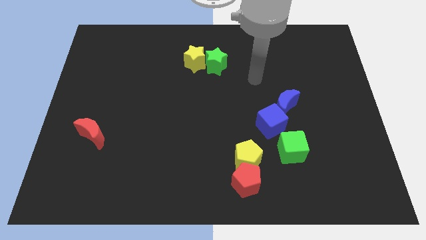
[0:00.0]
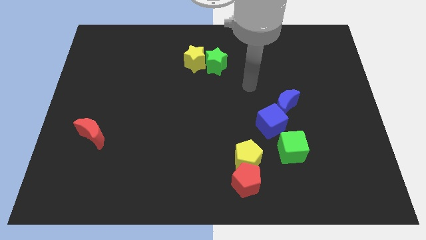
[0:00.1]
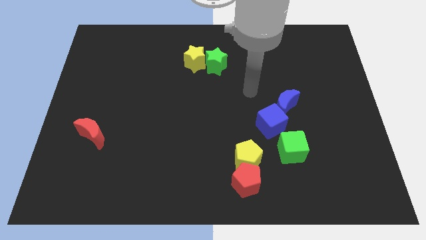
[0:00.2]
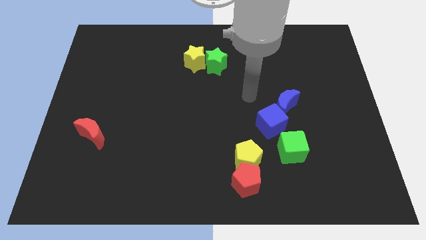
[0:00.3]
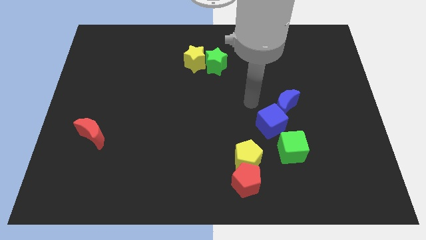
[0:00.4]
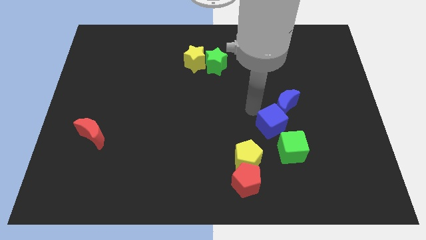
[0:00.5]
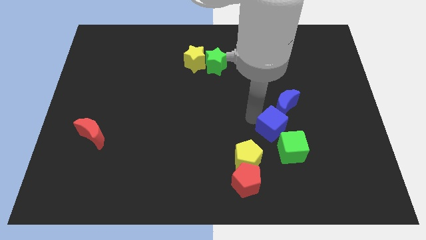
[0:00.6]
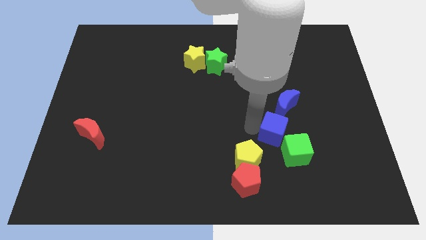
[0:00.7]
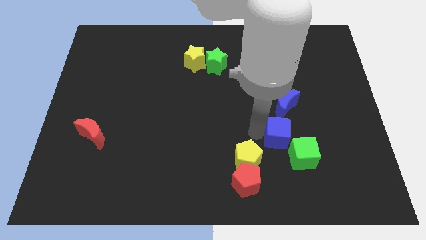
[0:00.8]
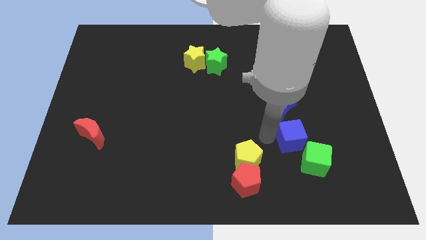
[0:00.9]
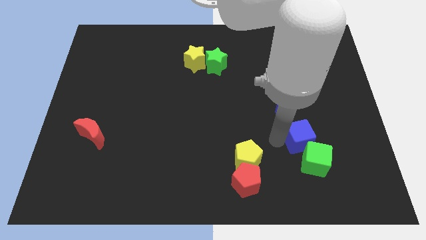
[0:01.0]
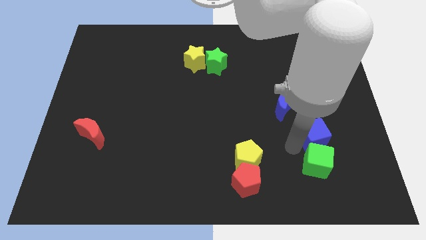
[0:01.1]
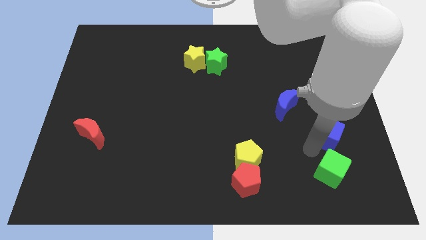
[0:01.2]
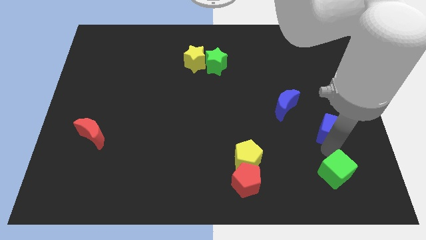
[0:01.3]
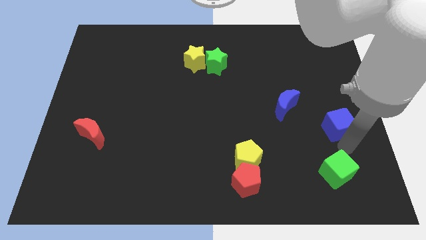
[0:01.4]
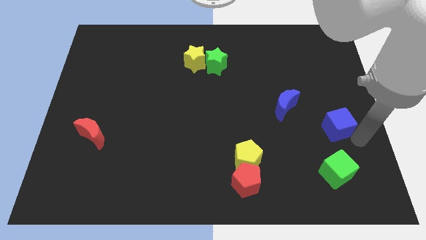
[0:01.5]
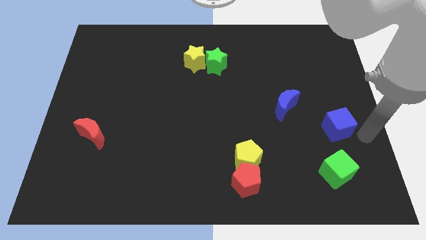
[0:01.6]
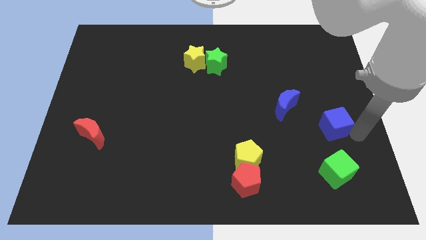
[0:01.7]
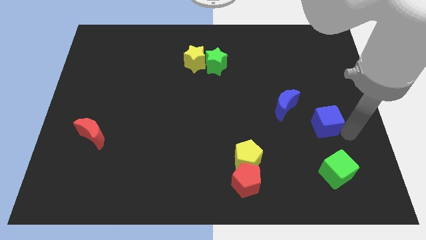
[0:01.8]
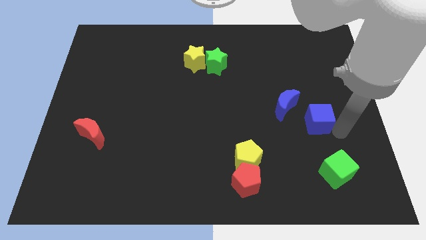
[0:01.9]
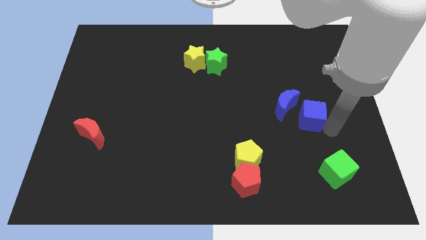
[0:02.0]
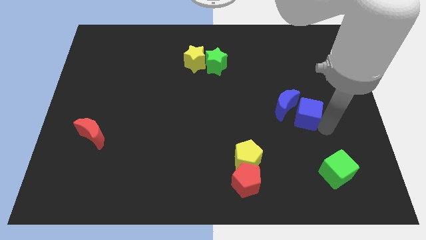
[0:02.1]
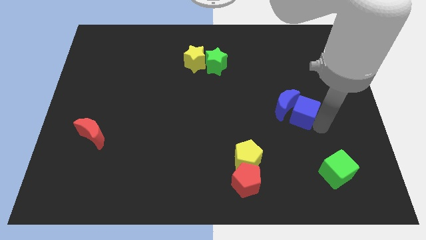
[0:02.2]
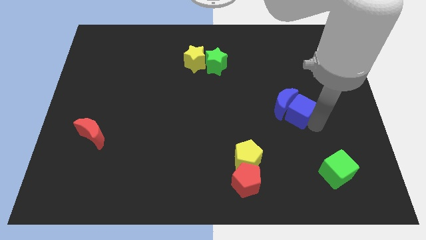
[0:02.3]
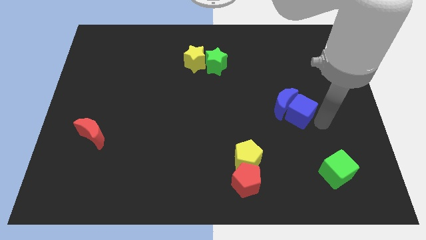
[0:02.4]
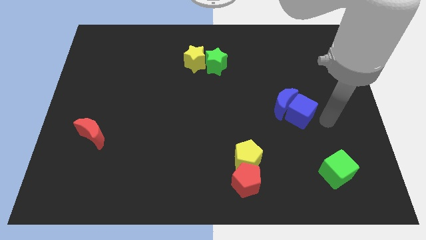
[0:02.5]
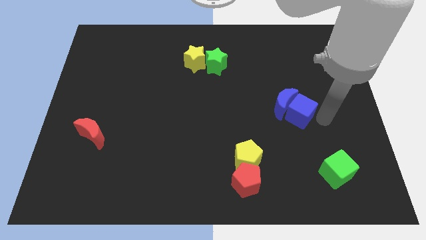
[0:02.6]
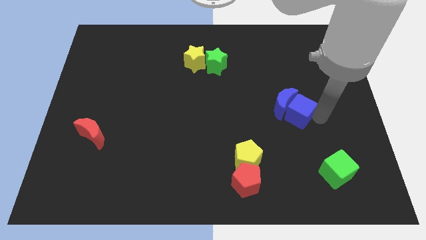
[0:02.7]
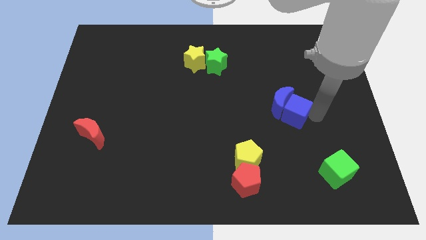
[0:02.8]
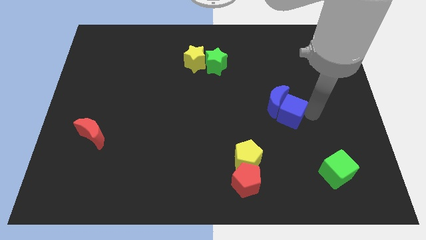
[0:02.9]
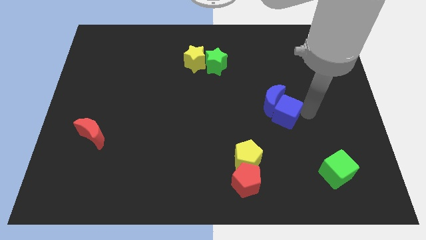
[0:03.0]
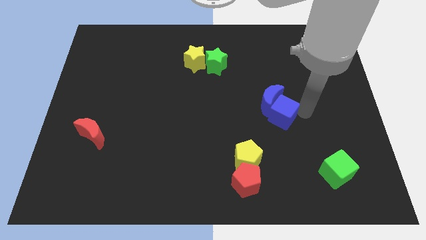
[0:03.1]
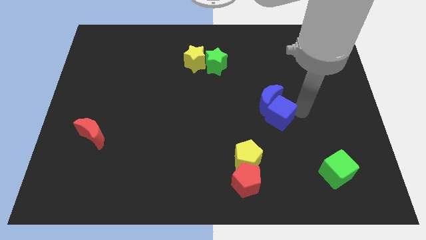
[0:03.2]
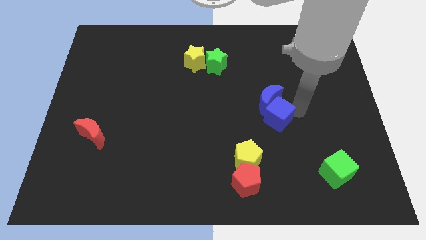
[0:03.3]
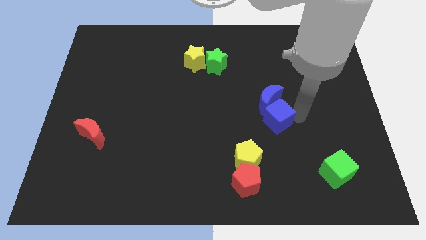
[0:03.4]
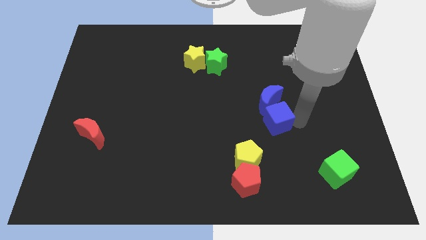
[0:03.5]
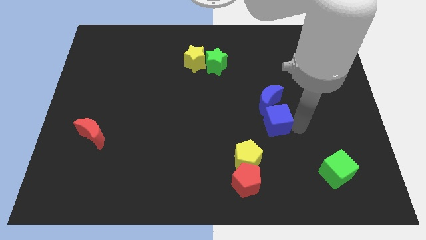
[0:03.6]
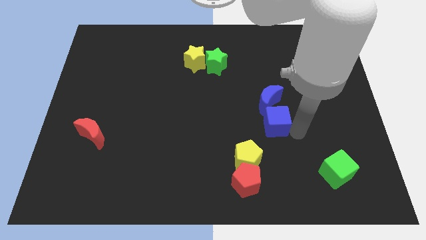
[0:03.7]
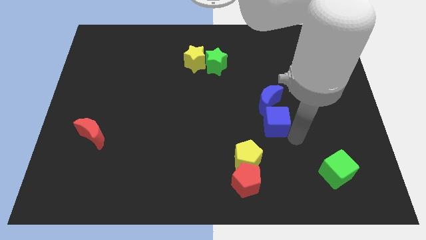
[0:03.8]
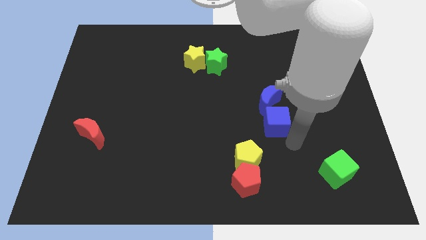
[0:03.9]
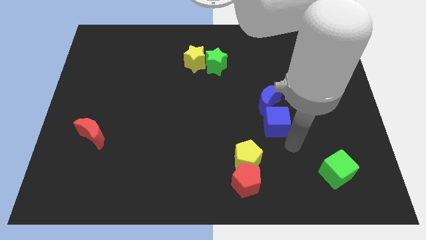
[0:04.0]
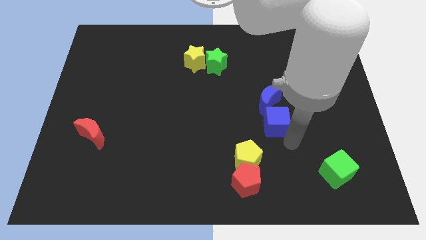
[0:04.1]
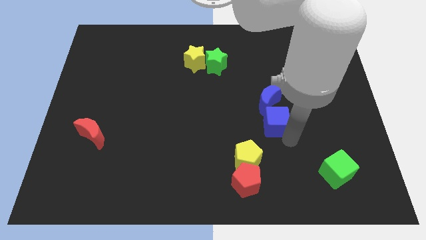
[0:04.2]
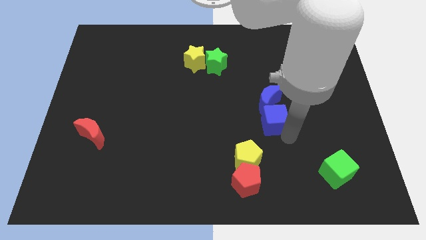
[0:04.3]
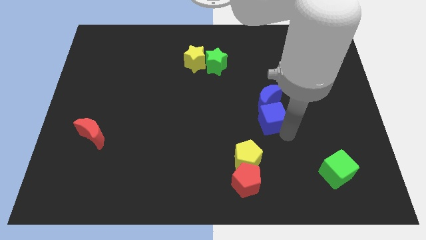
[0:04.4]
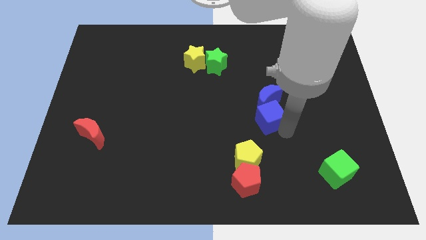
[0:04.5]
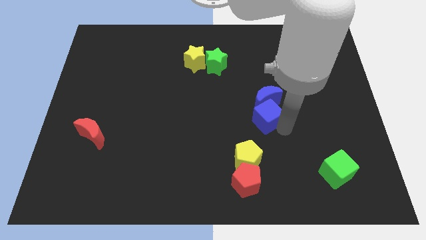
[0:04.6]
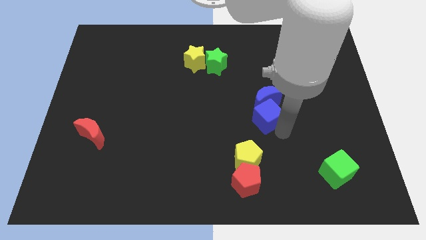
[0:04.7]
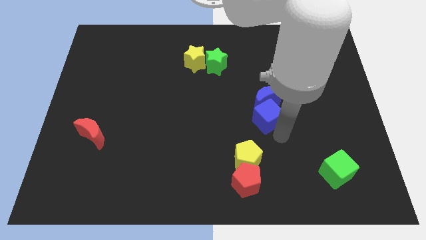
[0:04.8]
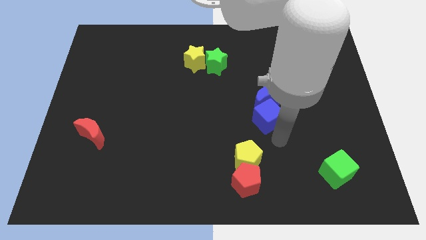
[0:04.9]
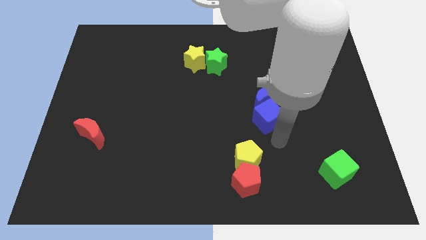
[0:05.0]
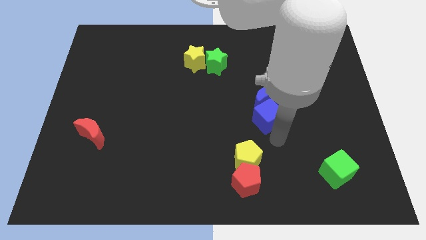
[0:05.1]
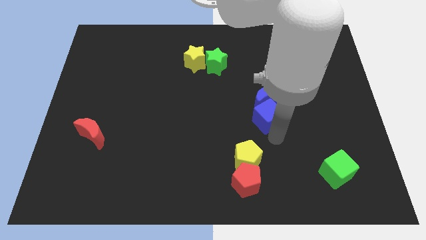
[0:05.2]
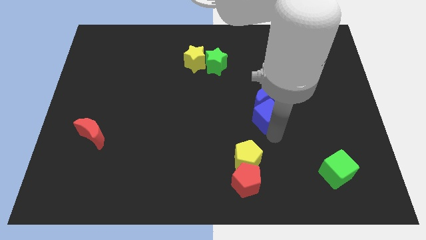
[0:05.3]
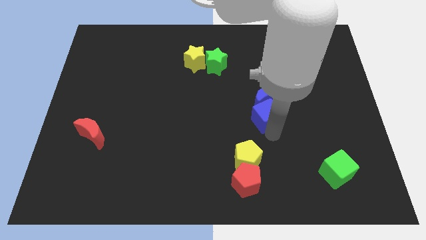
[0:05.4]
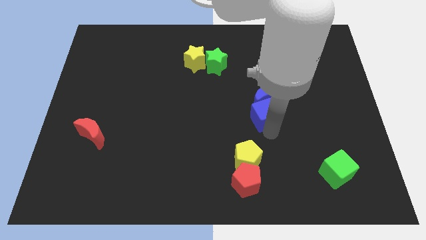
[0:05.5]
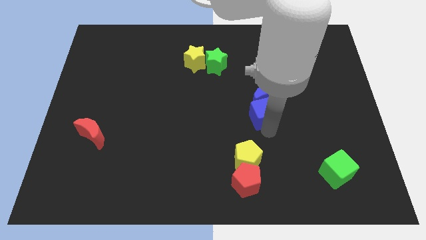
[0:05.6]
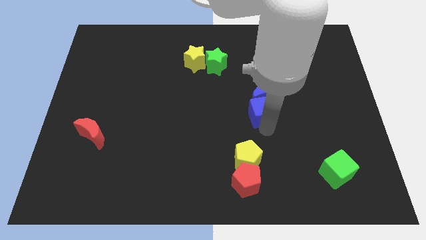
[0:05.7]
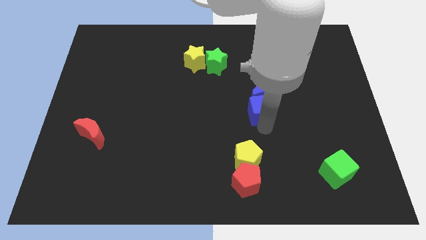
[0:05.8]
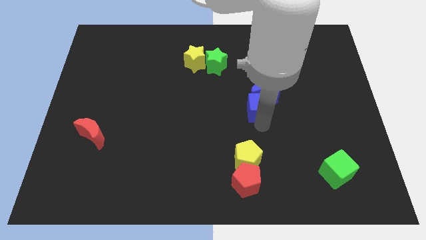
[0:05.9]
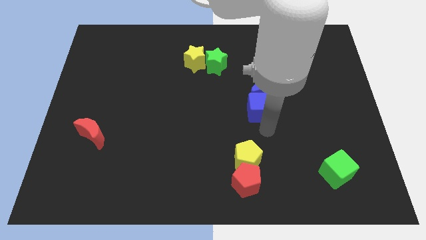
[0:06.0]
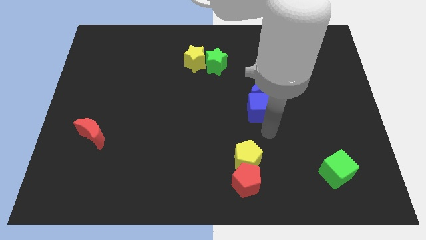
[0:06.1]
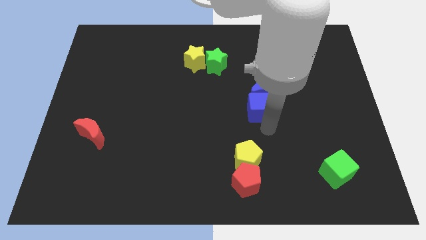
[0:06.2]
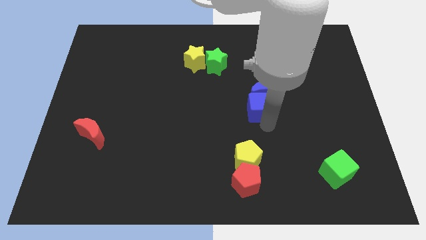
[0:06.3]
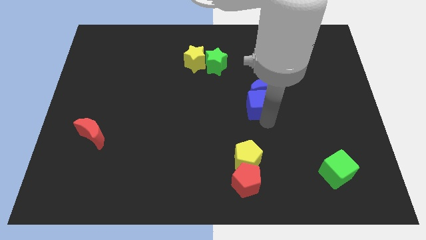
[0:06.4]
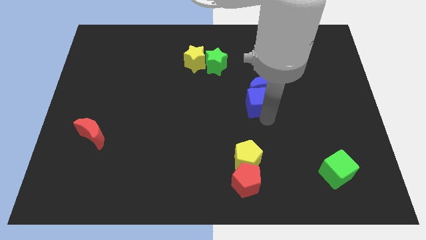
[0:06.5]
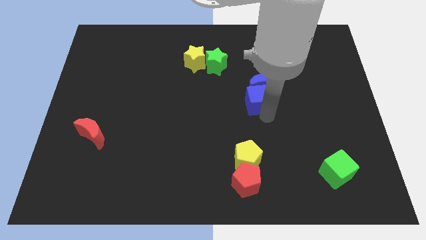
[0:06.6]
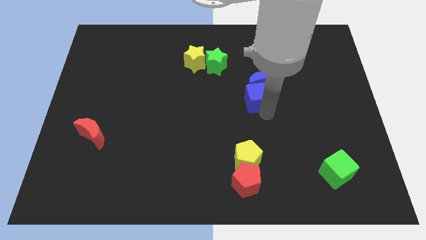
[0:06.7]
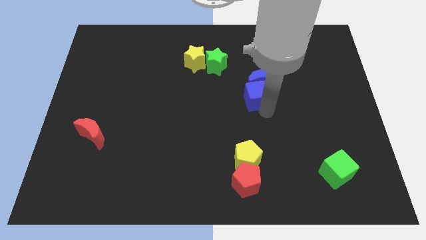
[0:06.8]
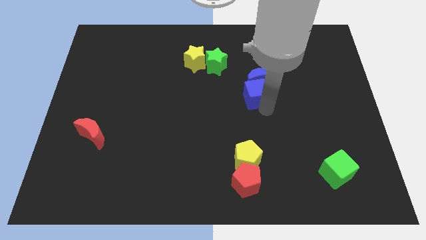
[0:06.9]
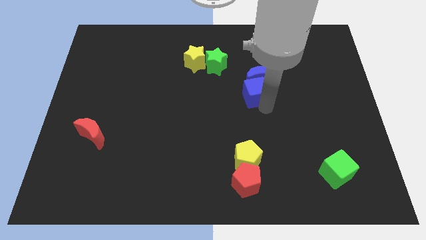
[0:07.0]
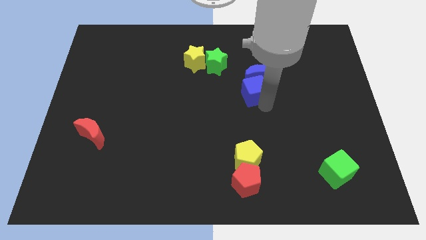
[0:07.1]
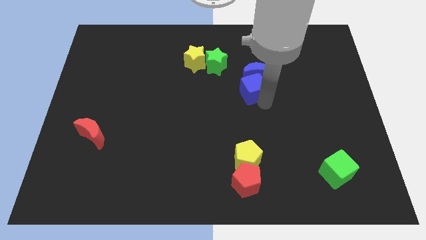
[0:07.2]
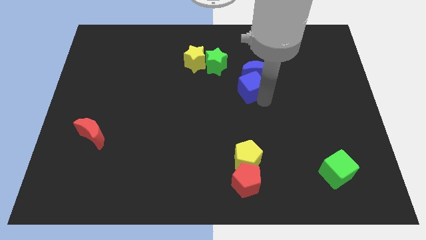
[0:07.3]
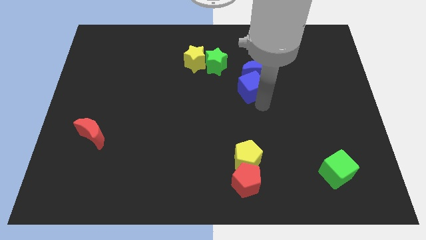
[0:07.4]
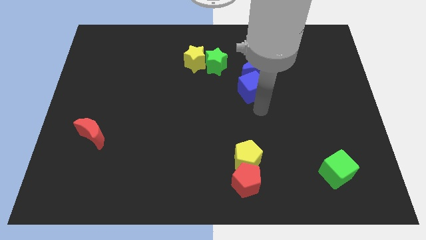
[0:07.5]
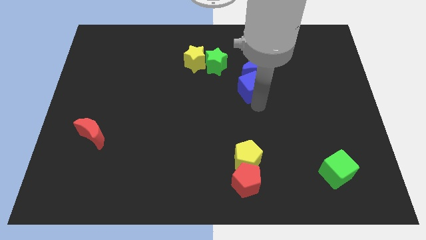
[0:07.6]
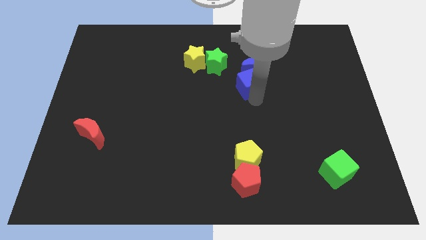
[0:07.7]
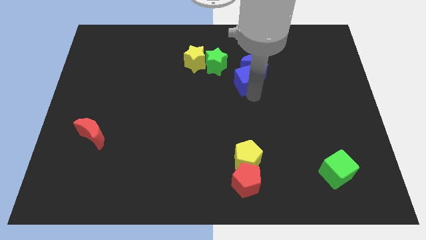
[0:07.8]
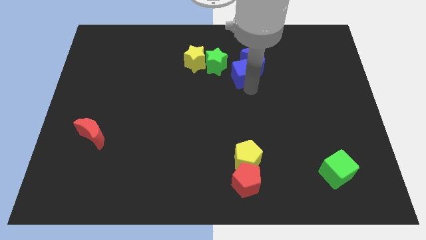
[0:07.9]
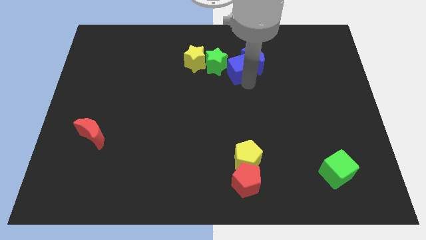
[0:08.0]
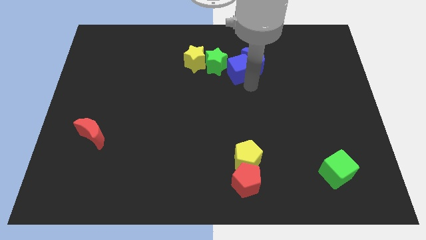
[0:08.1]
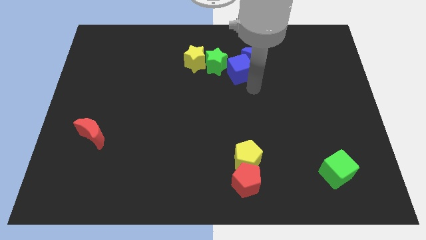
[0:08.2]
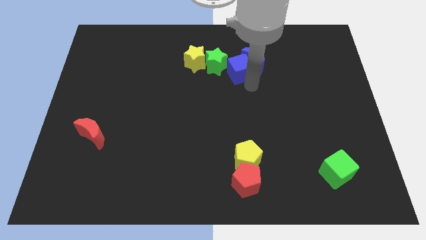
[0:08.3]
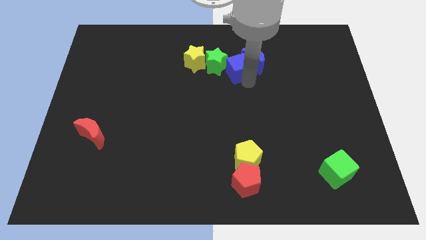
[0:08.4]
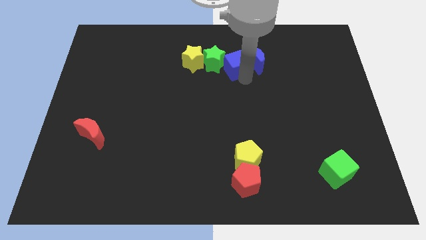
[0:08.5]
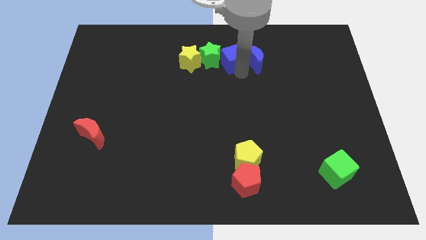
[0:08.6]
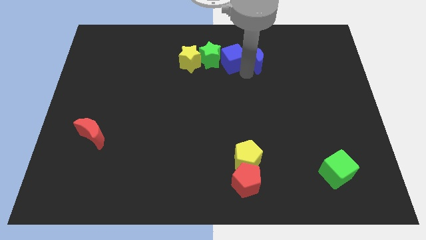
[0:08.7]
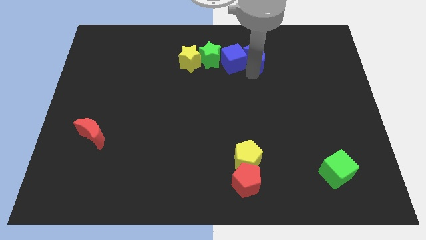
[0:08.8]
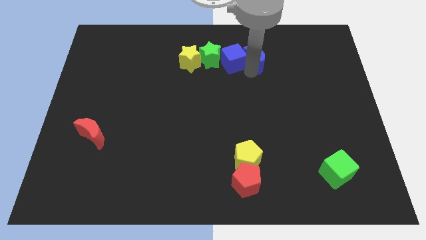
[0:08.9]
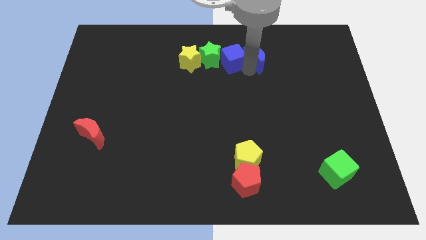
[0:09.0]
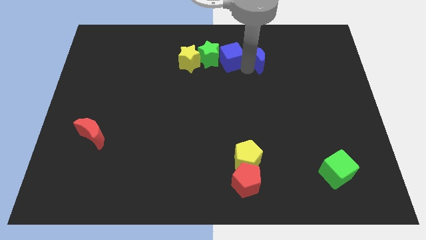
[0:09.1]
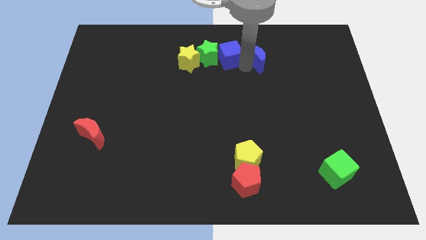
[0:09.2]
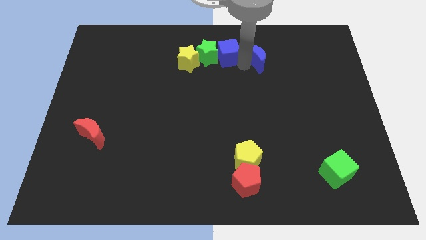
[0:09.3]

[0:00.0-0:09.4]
put the blue cube to the top side
